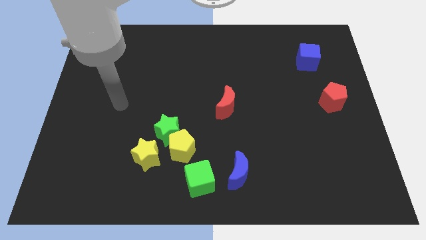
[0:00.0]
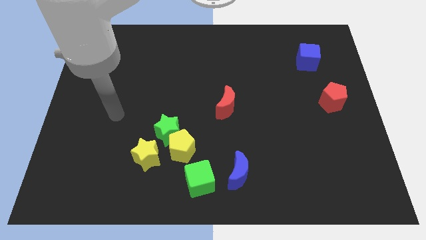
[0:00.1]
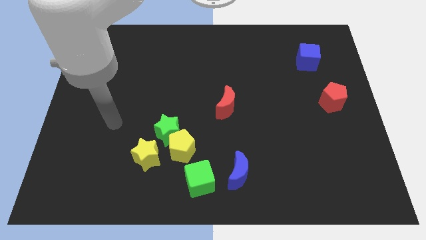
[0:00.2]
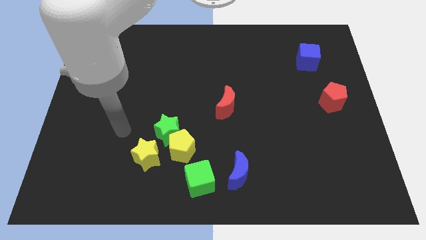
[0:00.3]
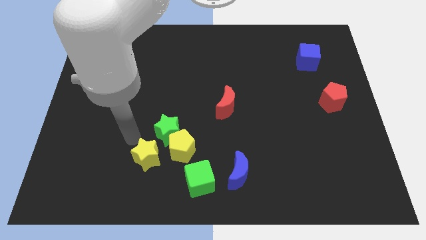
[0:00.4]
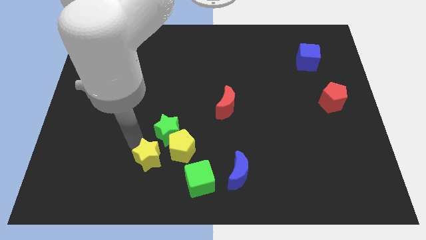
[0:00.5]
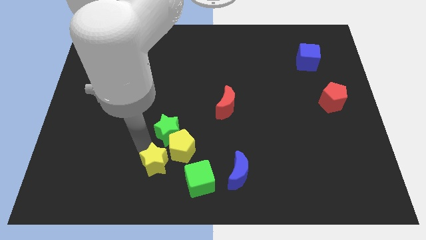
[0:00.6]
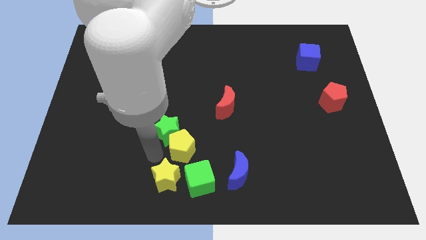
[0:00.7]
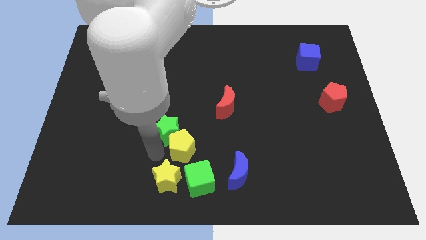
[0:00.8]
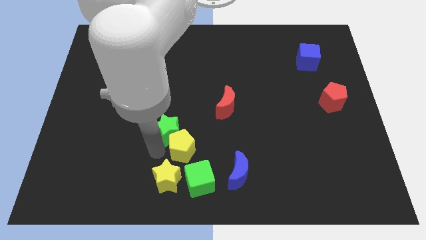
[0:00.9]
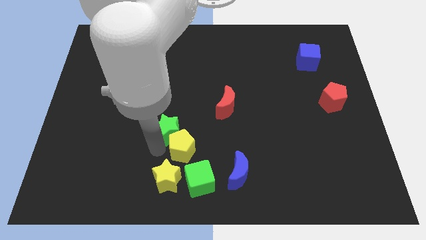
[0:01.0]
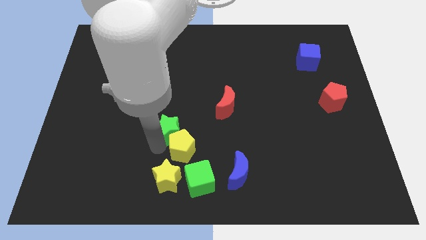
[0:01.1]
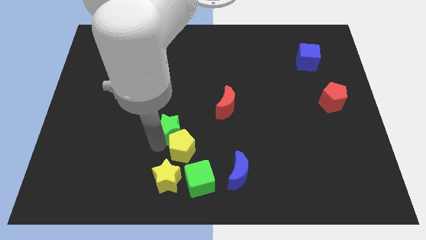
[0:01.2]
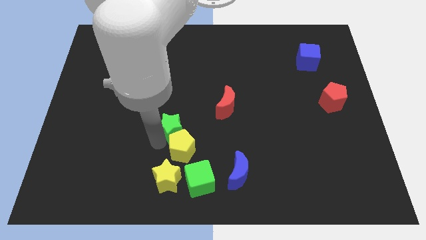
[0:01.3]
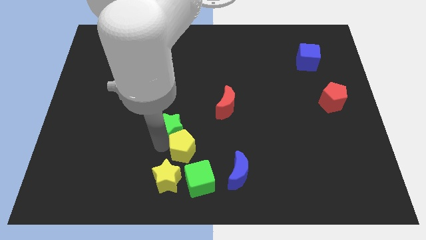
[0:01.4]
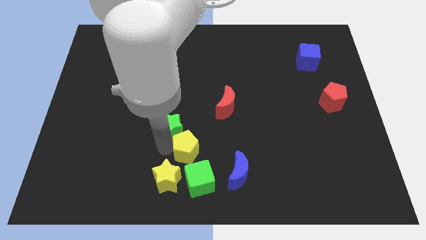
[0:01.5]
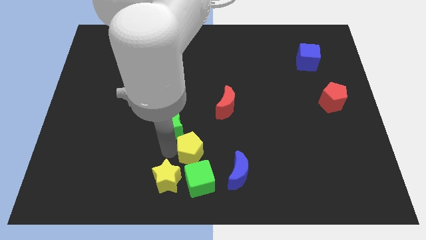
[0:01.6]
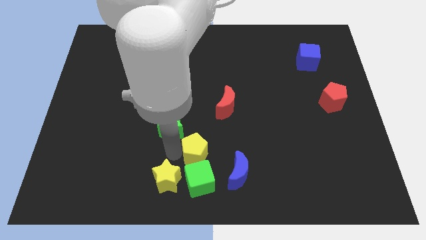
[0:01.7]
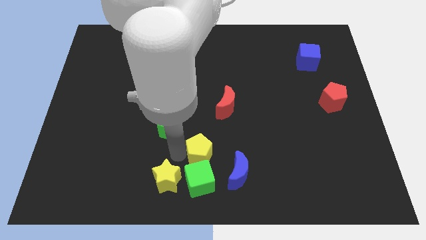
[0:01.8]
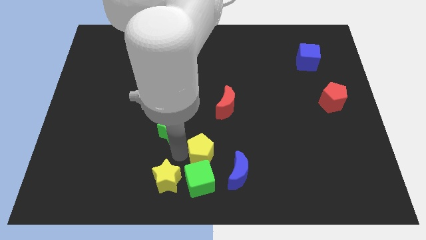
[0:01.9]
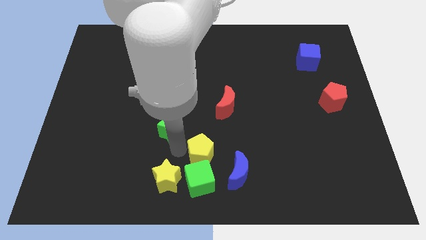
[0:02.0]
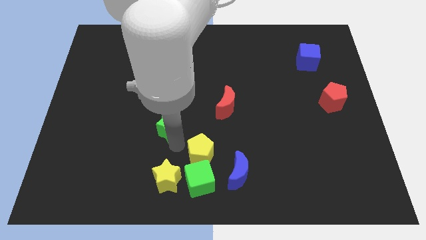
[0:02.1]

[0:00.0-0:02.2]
move the green star away from the yellow pentagon and yellow star

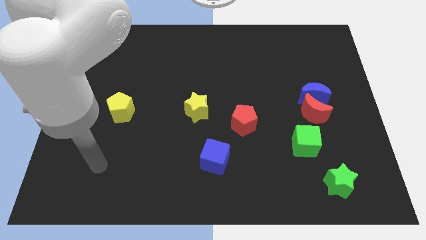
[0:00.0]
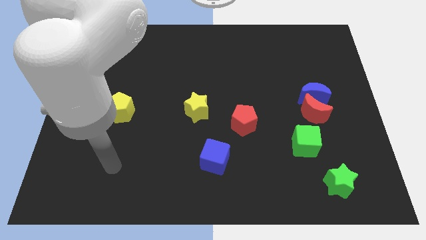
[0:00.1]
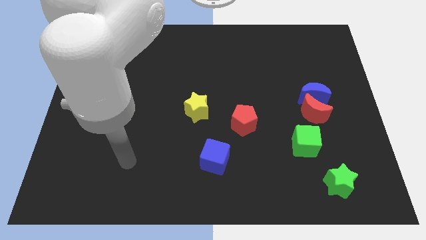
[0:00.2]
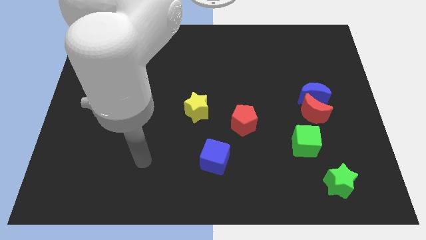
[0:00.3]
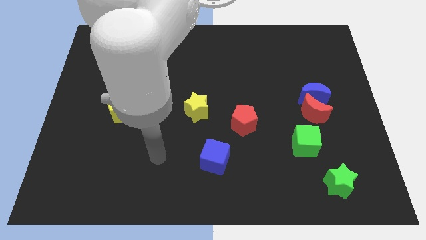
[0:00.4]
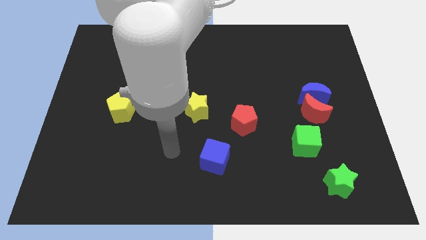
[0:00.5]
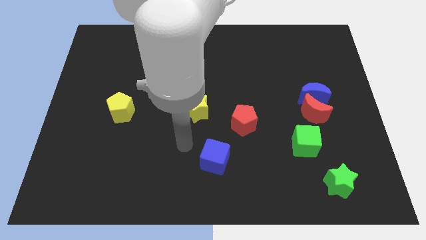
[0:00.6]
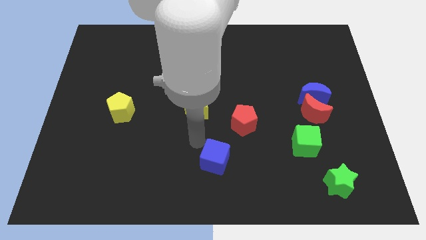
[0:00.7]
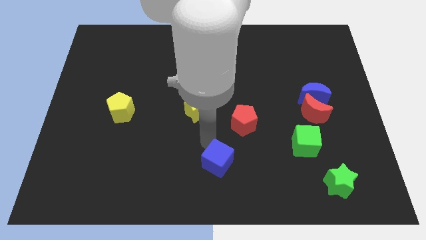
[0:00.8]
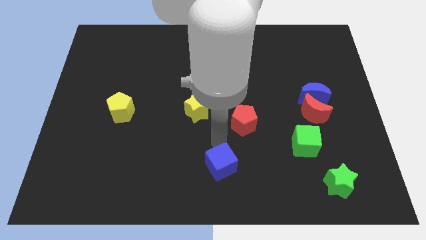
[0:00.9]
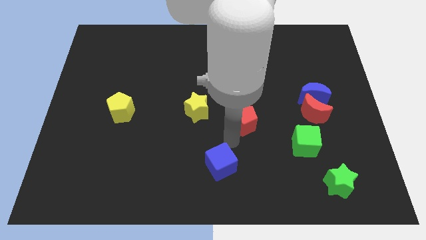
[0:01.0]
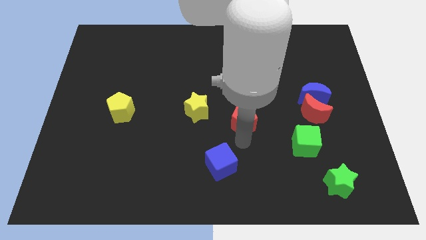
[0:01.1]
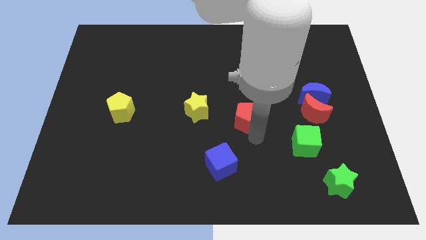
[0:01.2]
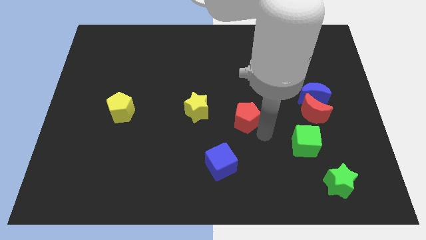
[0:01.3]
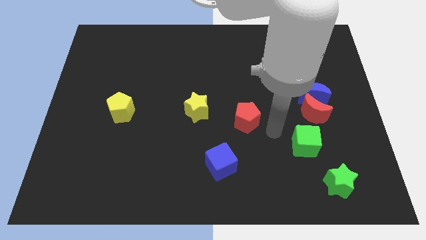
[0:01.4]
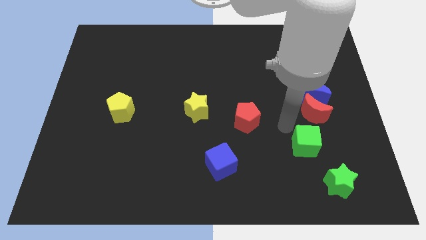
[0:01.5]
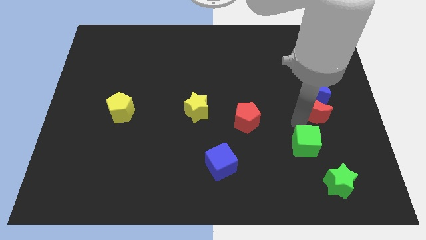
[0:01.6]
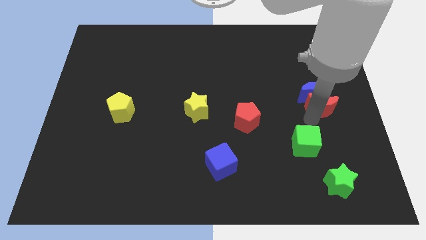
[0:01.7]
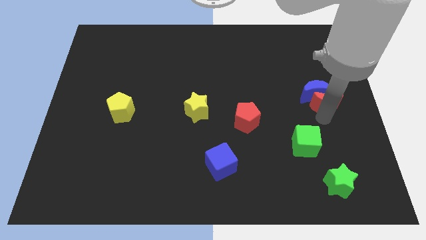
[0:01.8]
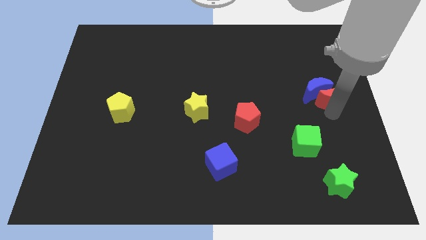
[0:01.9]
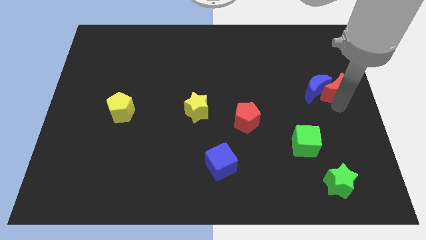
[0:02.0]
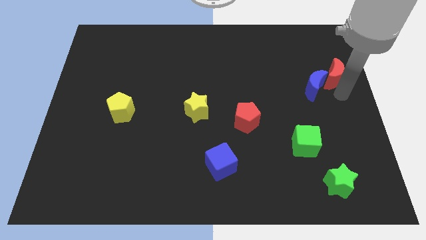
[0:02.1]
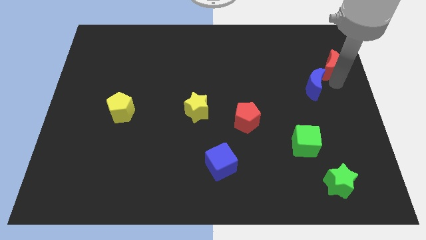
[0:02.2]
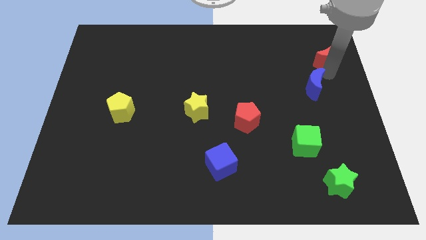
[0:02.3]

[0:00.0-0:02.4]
pull the blue moon apart from the red moon

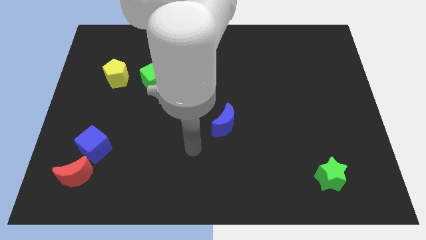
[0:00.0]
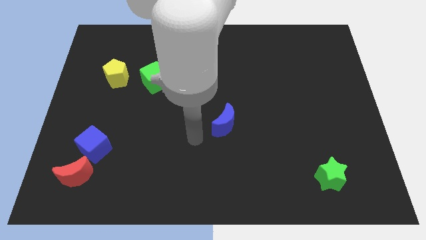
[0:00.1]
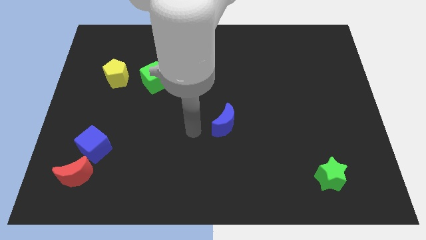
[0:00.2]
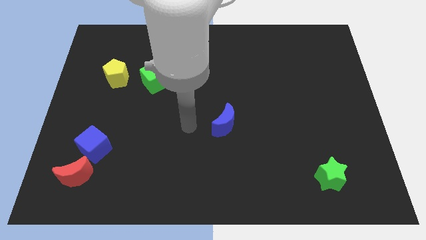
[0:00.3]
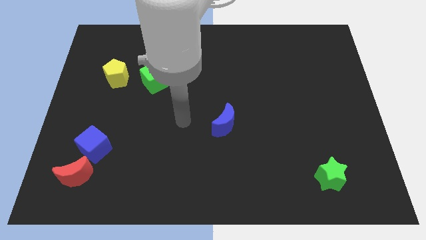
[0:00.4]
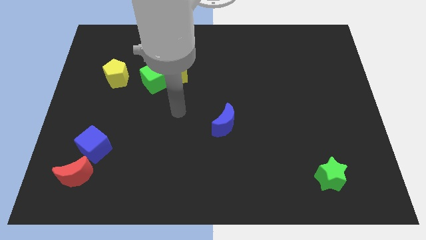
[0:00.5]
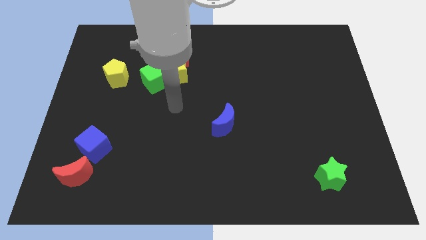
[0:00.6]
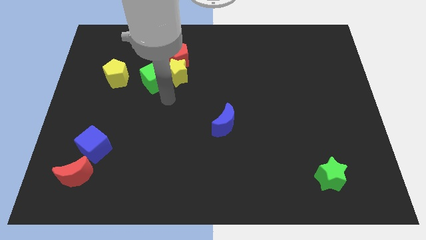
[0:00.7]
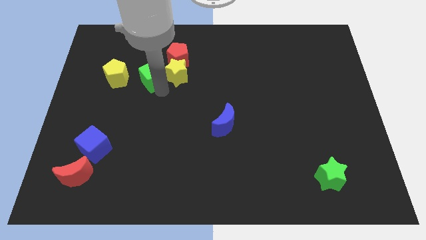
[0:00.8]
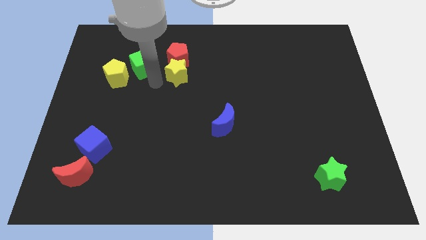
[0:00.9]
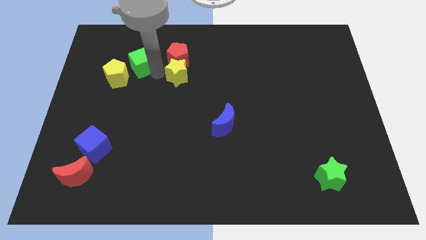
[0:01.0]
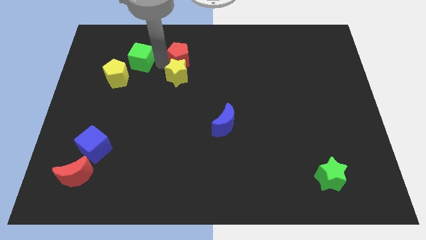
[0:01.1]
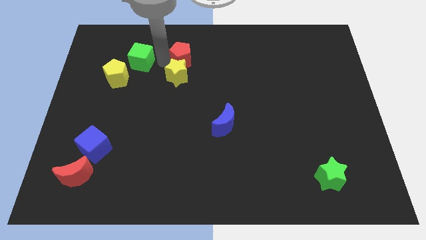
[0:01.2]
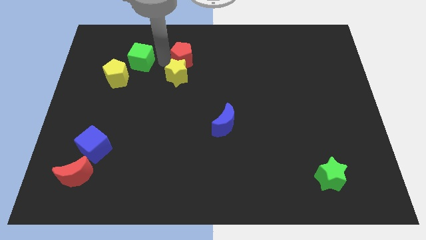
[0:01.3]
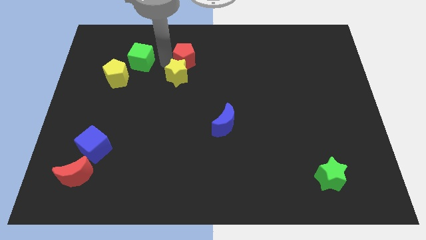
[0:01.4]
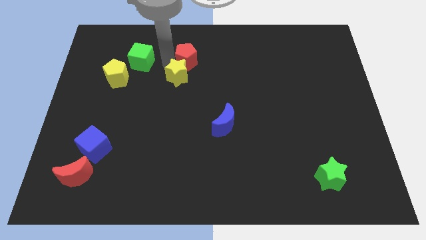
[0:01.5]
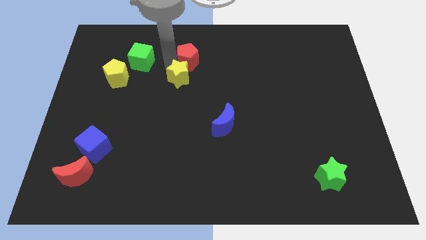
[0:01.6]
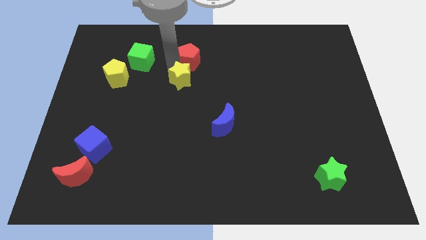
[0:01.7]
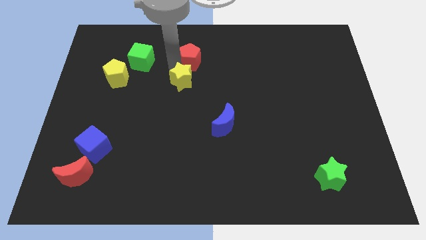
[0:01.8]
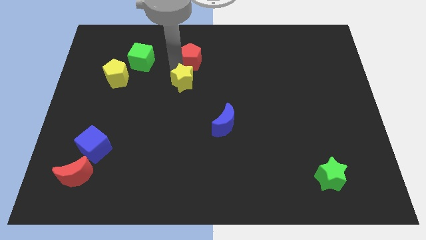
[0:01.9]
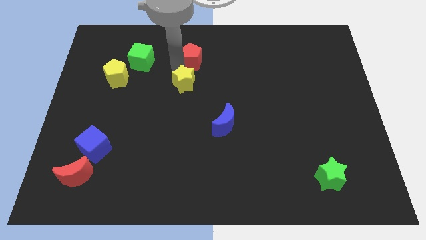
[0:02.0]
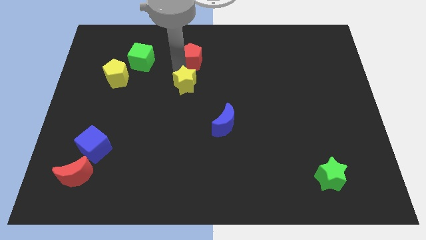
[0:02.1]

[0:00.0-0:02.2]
move the yellow star away from the red pentagon and green cube

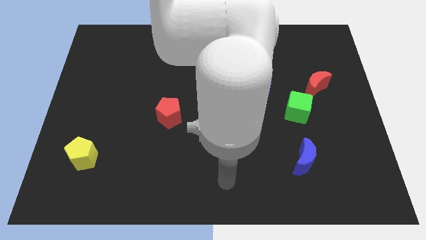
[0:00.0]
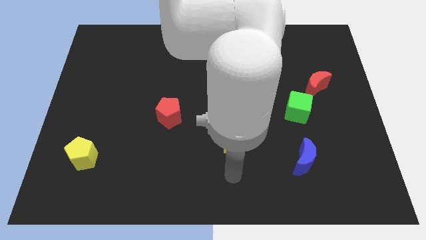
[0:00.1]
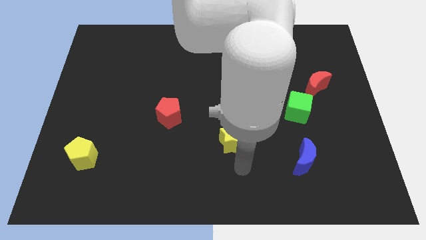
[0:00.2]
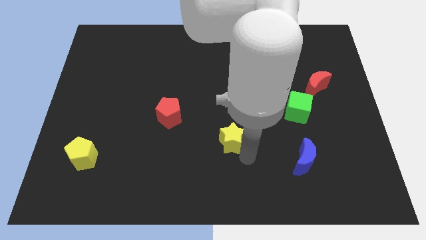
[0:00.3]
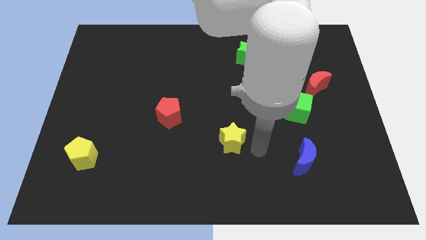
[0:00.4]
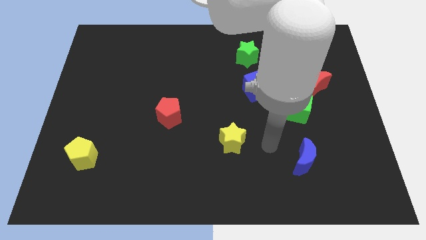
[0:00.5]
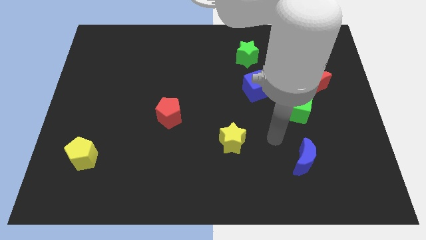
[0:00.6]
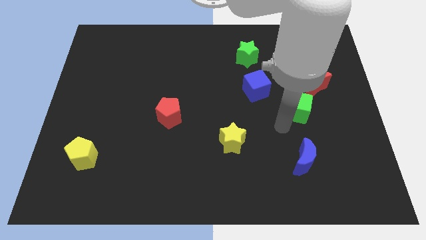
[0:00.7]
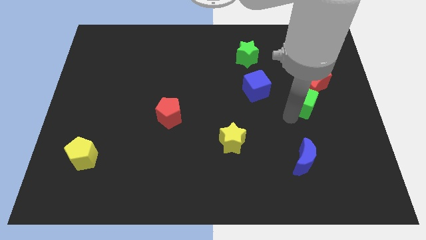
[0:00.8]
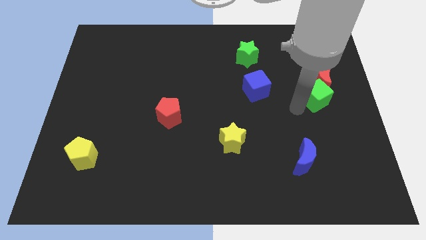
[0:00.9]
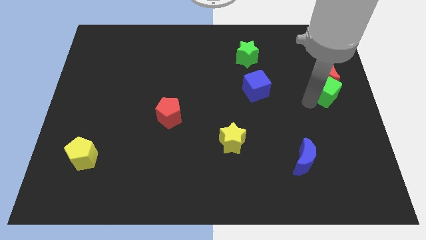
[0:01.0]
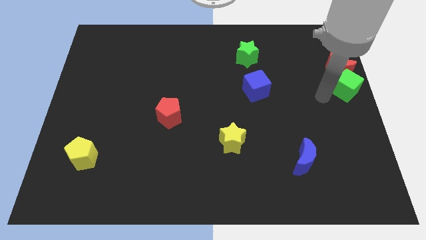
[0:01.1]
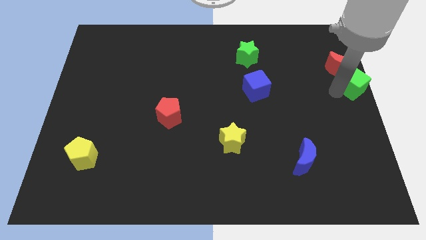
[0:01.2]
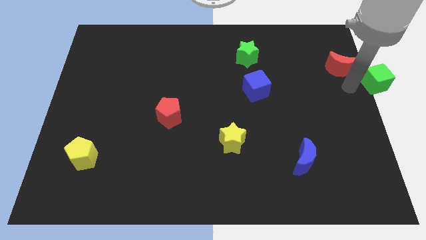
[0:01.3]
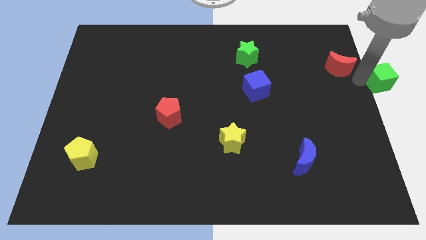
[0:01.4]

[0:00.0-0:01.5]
separate the red moon from the green cube

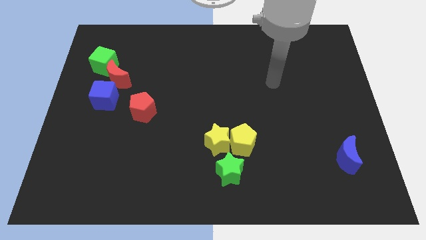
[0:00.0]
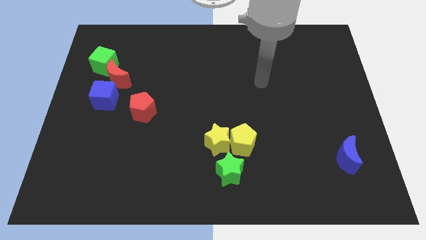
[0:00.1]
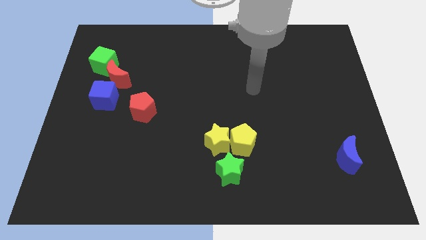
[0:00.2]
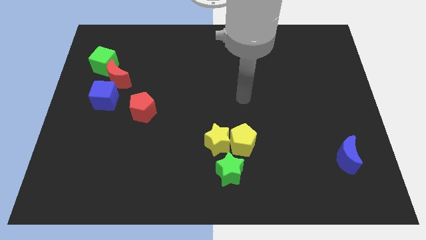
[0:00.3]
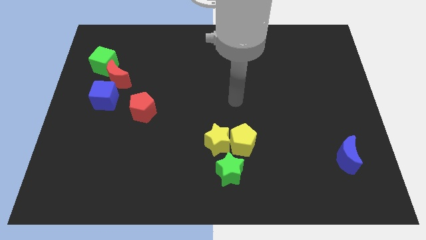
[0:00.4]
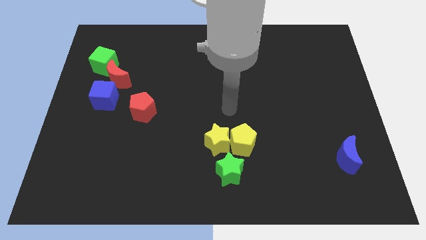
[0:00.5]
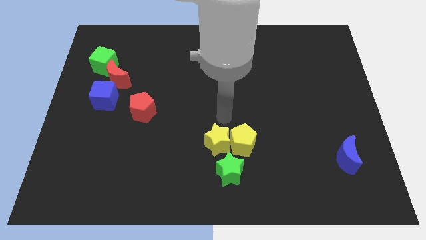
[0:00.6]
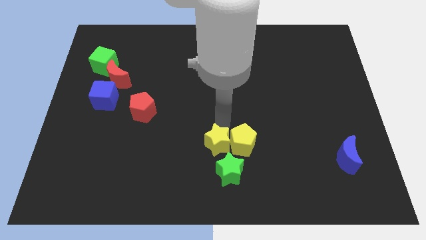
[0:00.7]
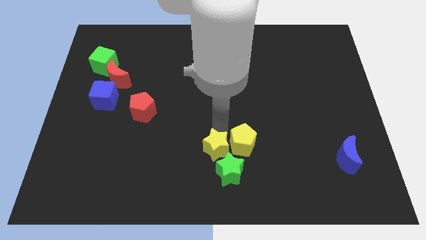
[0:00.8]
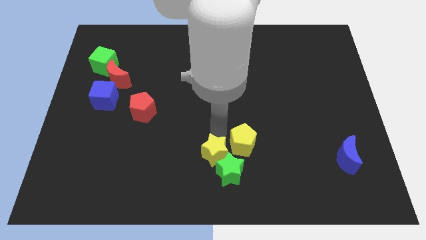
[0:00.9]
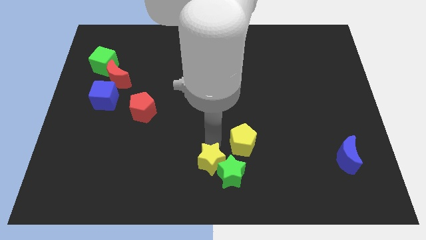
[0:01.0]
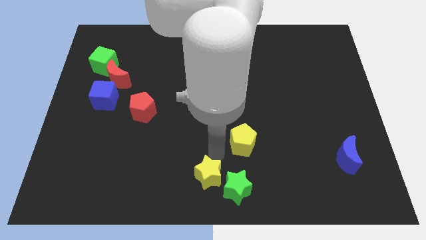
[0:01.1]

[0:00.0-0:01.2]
separate the yellow pentagon from the yellow star and green star
